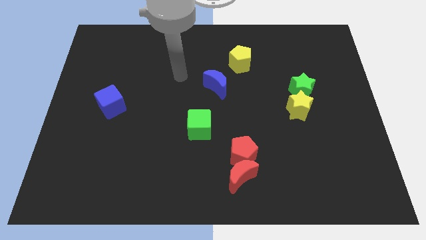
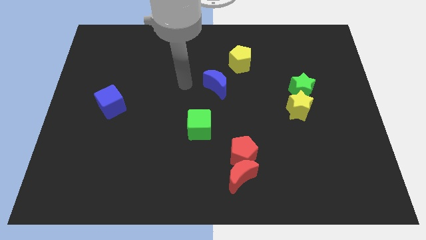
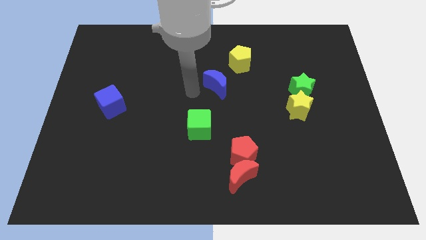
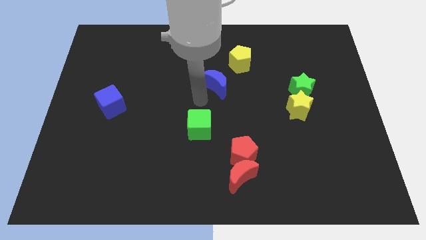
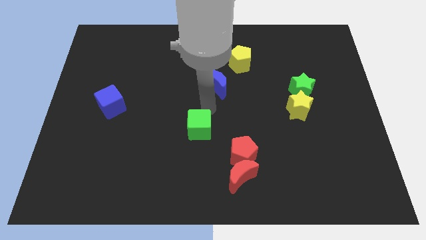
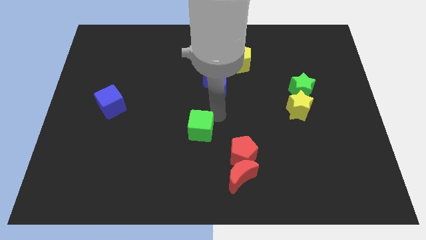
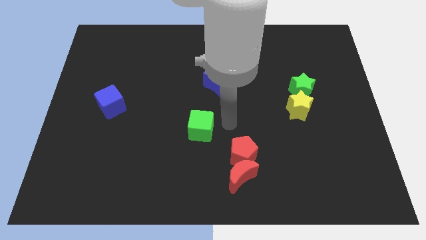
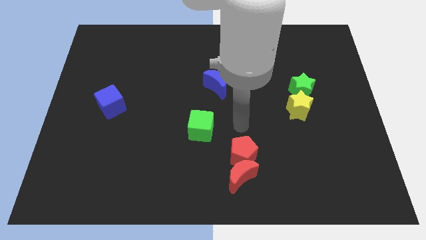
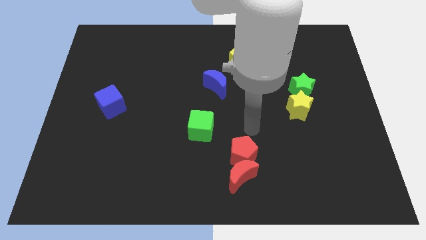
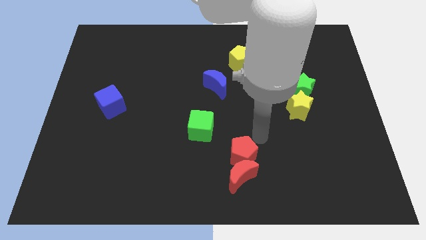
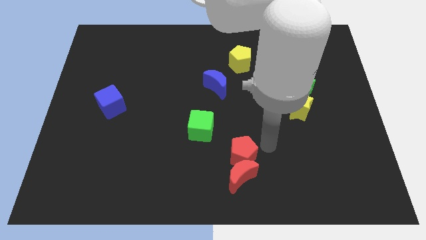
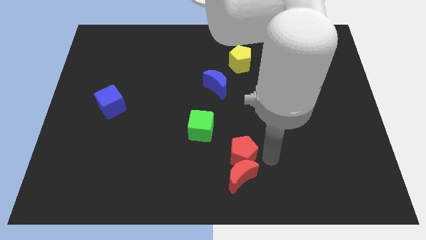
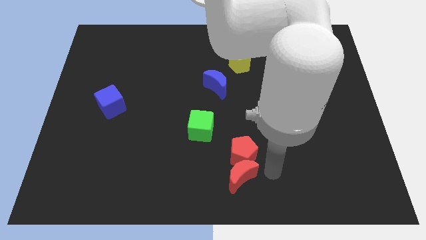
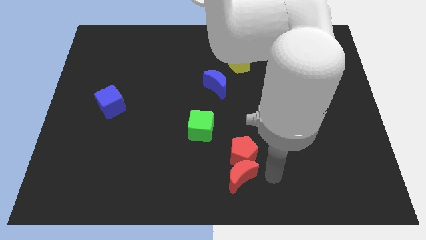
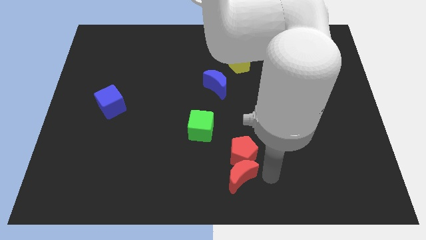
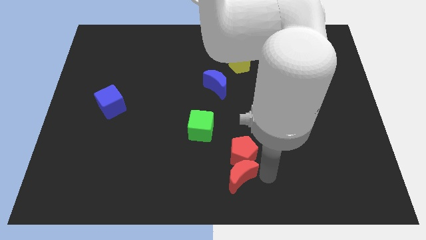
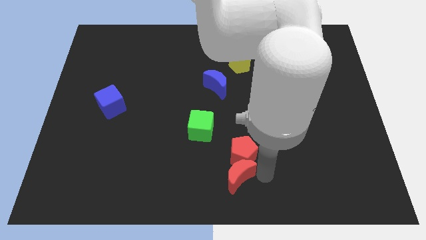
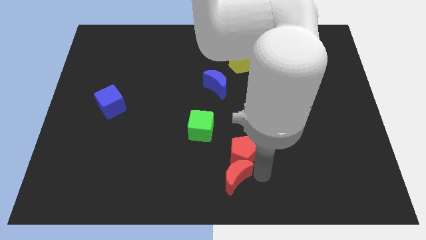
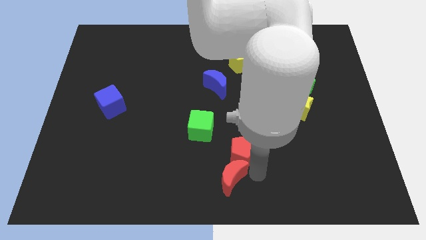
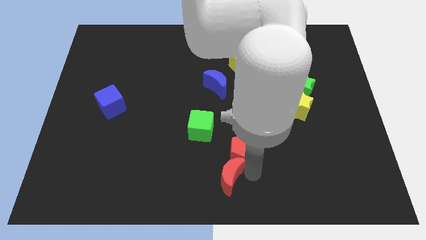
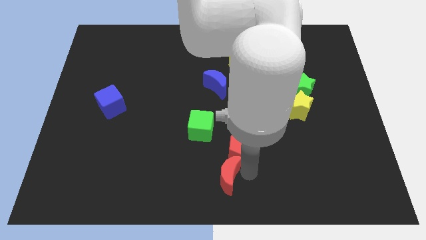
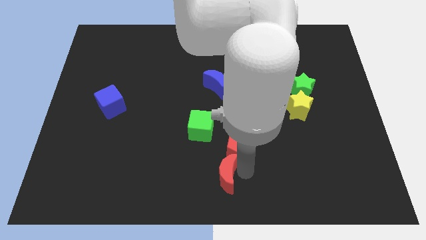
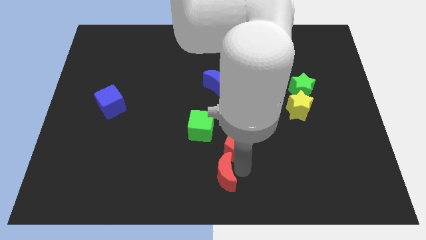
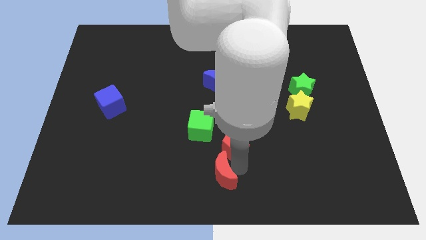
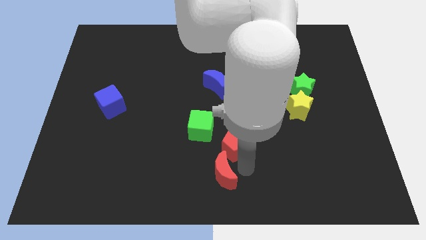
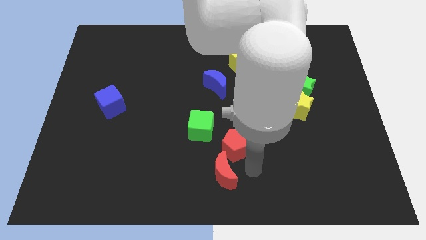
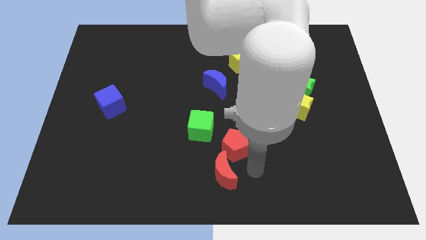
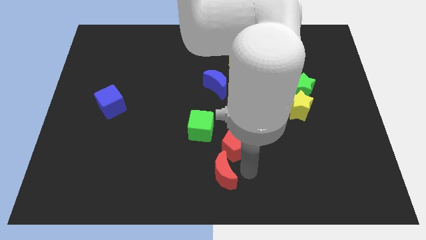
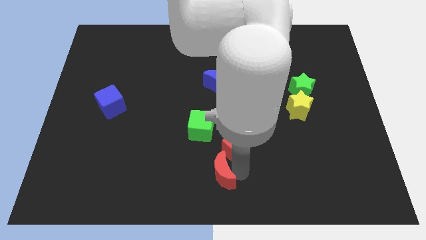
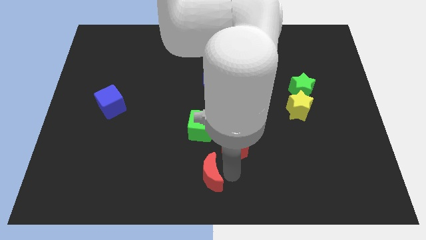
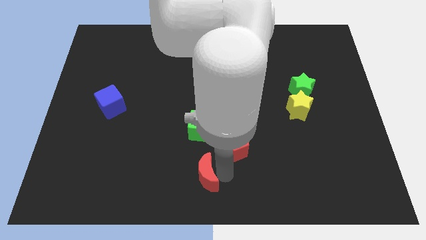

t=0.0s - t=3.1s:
push the red moon left somewhat

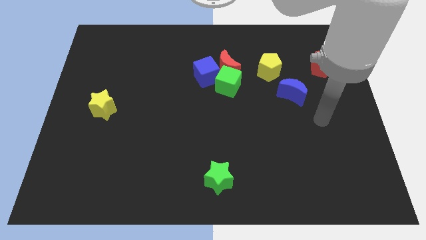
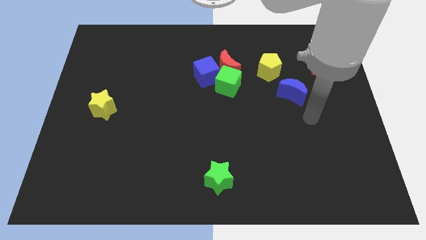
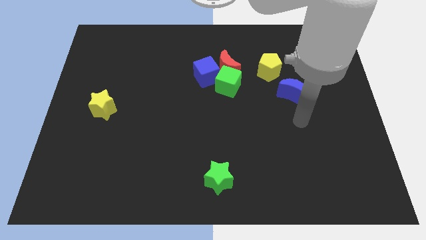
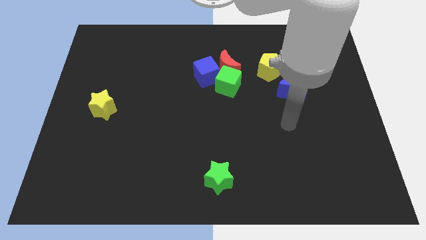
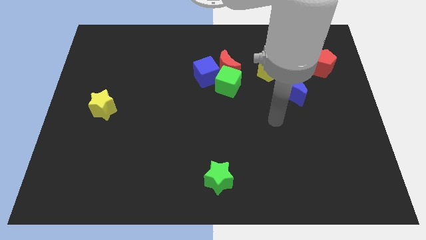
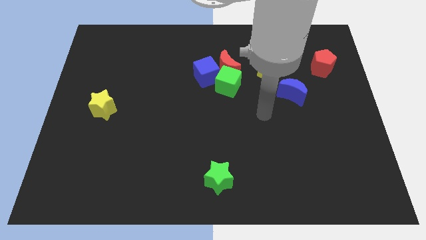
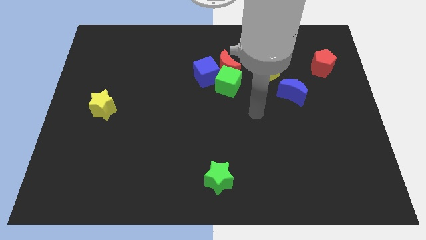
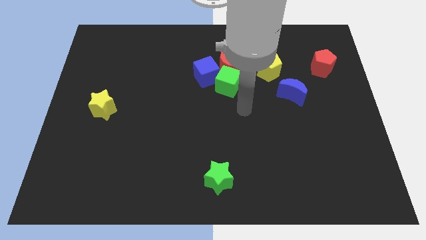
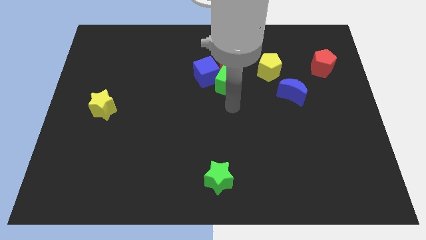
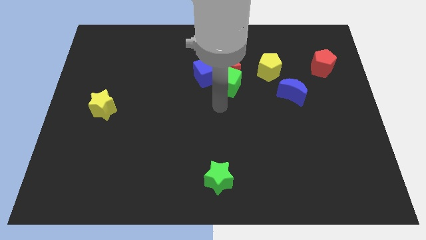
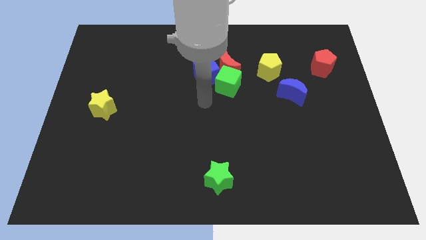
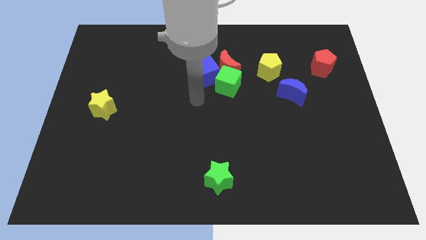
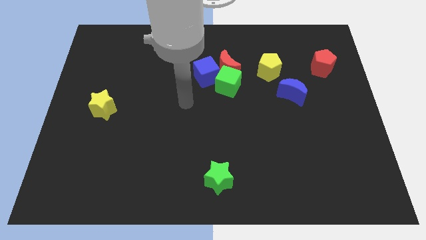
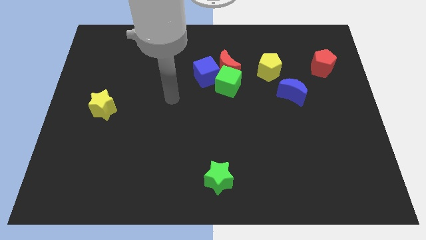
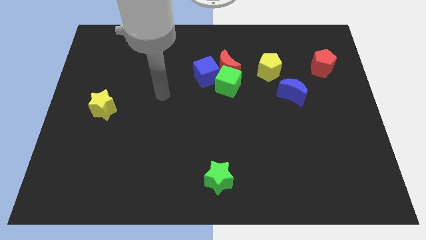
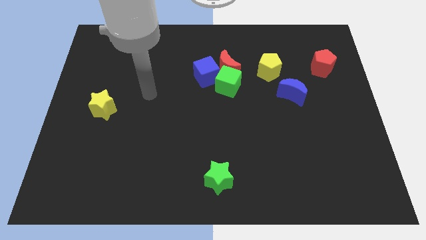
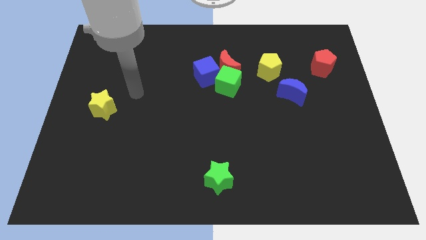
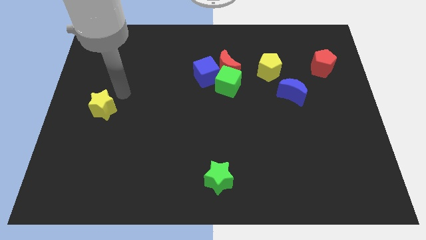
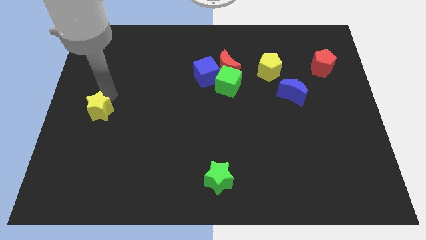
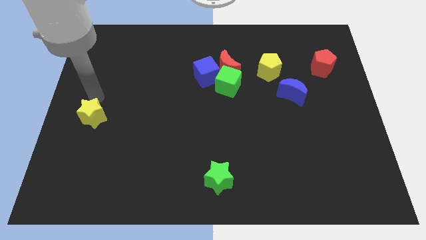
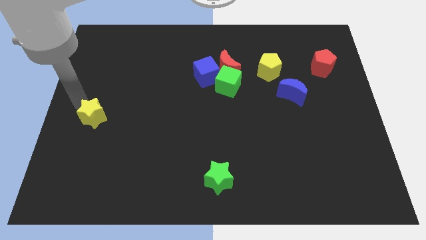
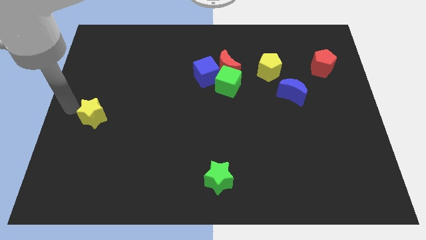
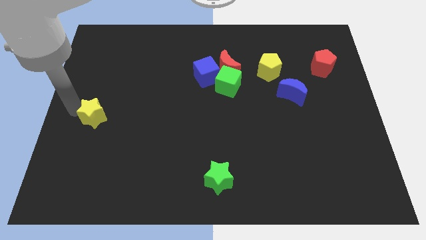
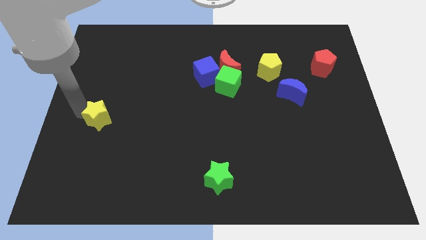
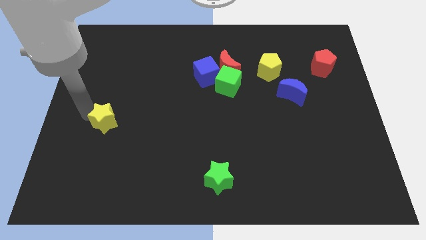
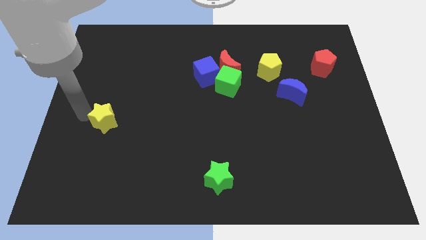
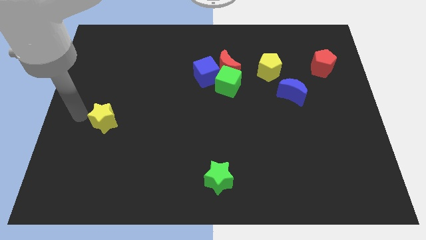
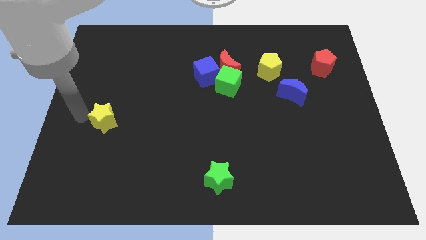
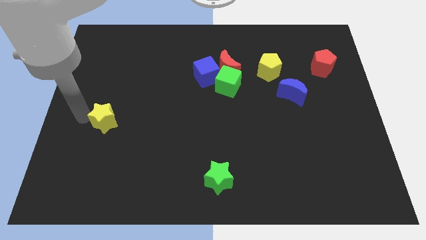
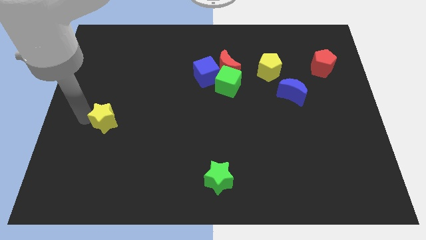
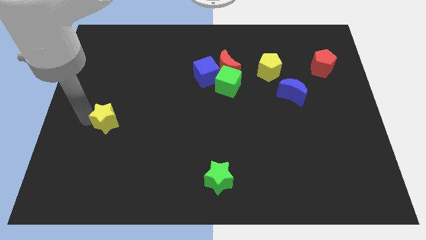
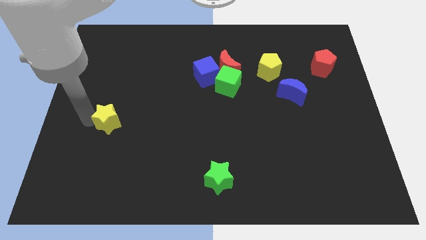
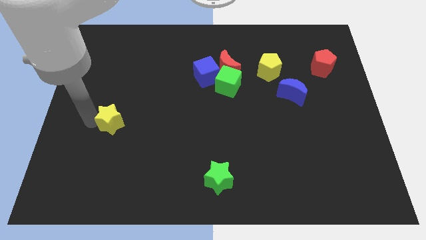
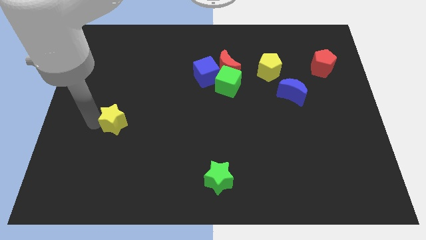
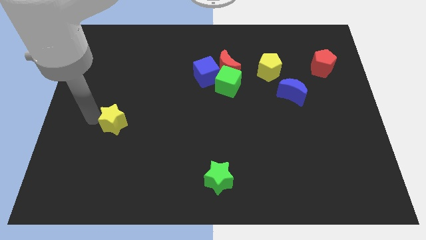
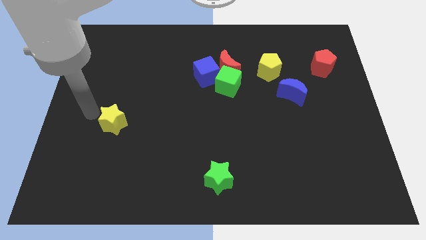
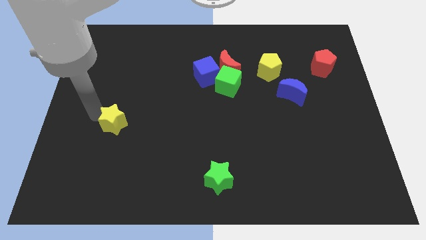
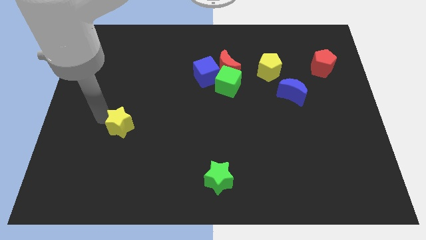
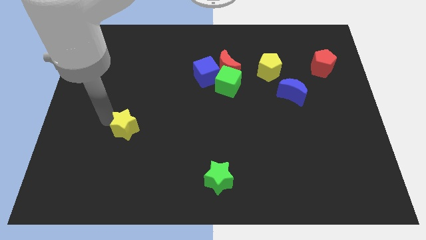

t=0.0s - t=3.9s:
slightly slide the yellow star downwards and then right

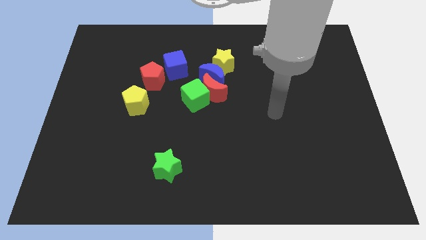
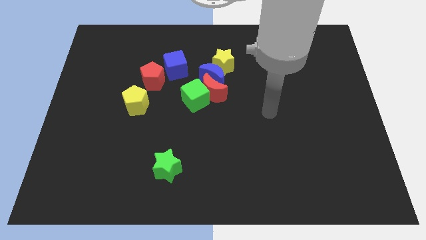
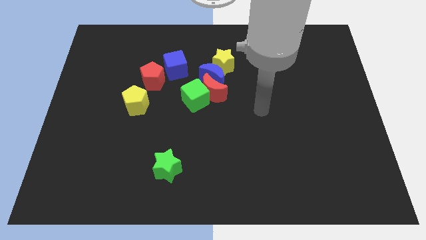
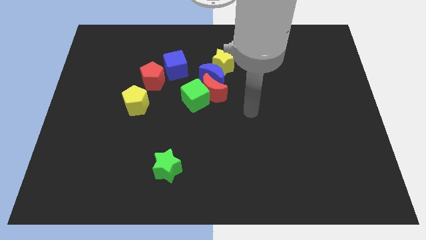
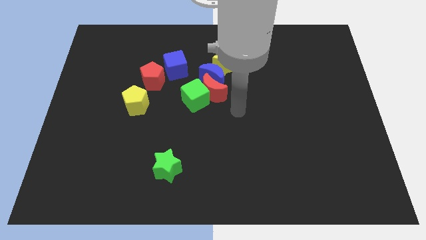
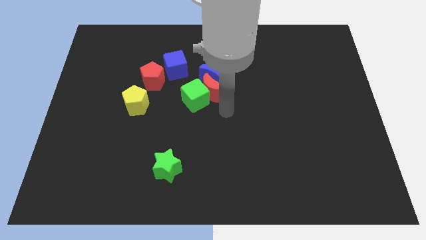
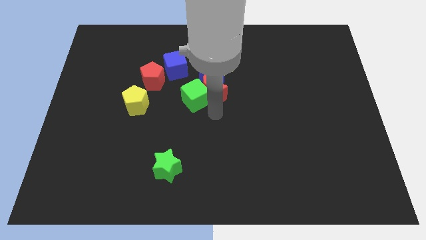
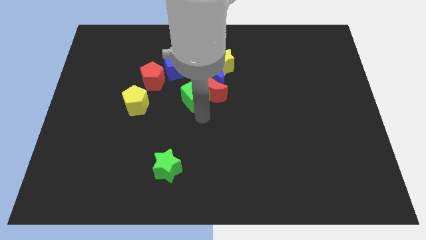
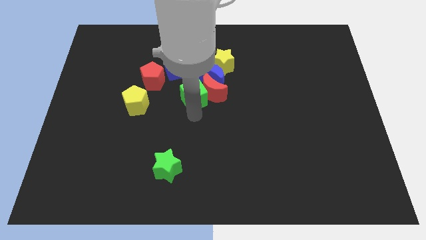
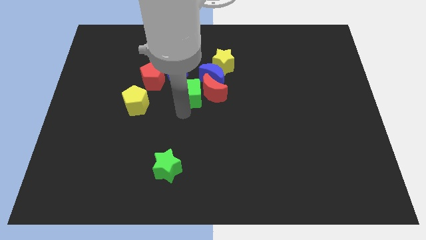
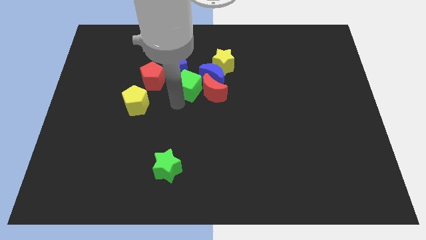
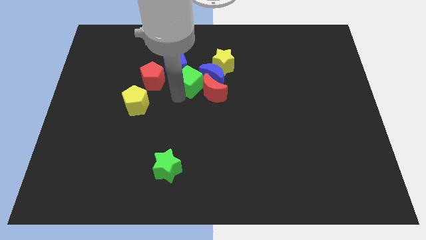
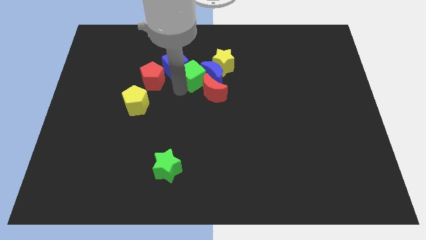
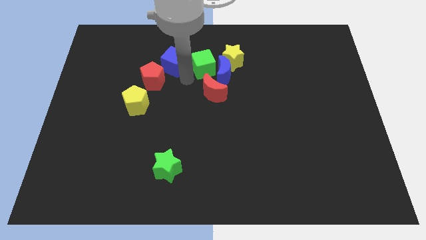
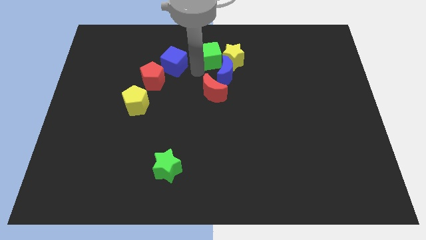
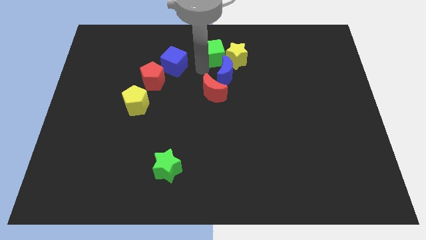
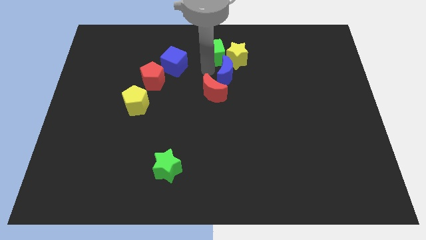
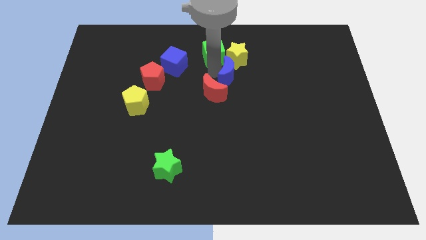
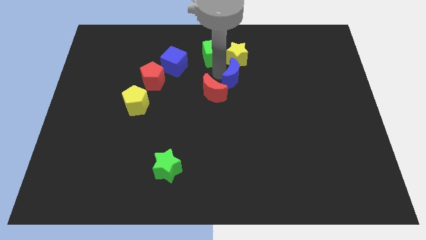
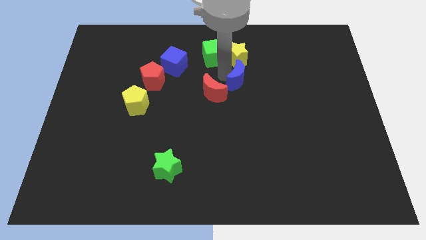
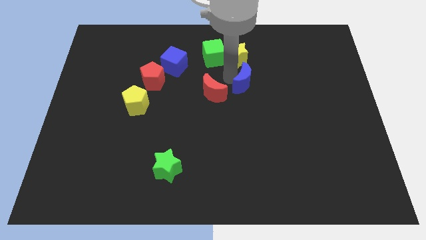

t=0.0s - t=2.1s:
push the blue moon to the right slightly
